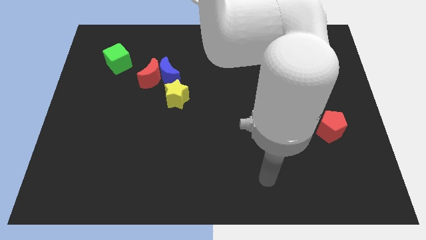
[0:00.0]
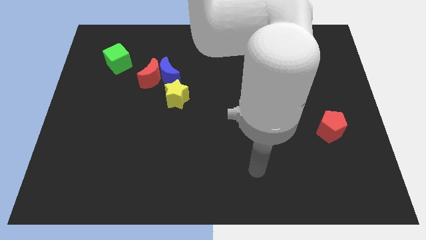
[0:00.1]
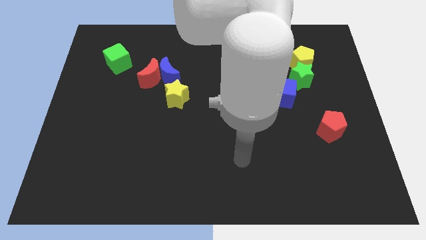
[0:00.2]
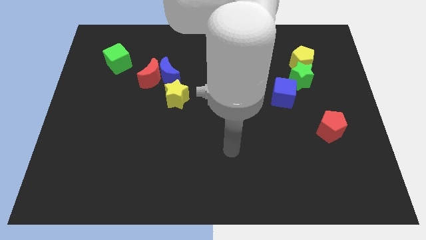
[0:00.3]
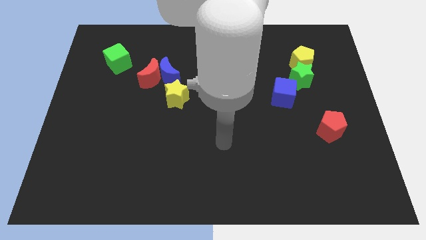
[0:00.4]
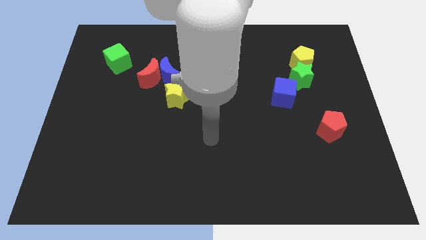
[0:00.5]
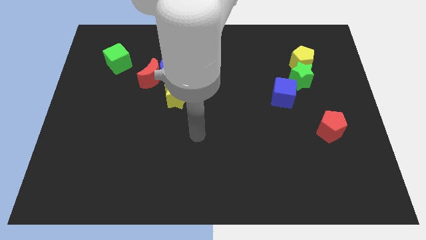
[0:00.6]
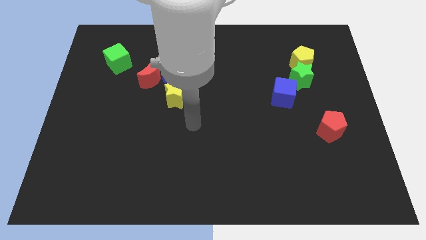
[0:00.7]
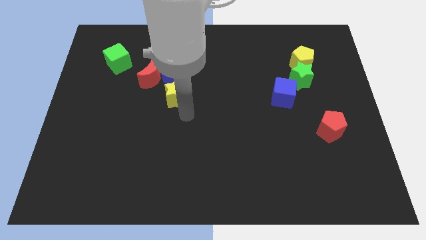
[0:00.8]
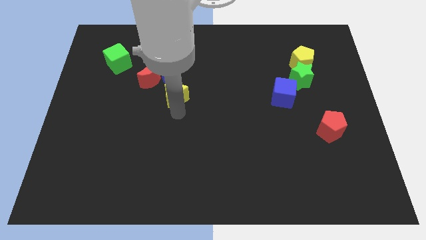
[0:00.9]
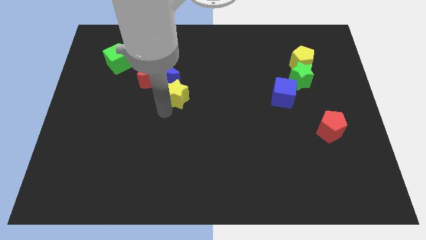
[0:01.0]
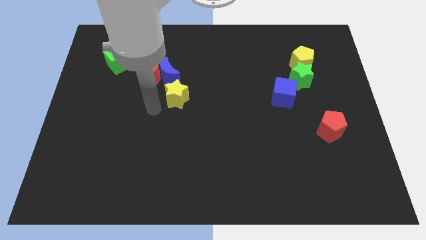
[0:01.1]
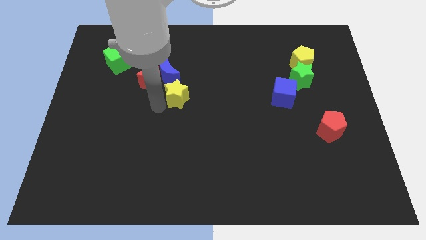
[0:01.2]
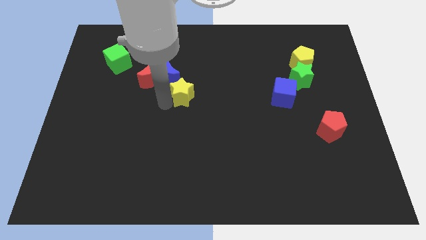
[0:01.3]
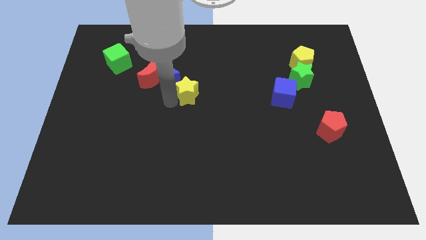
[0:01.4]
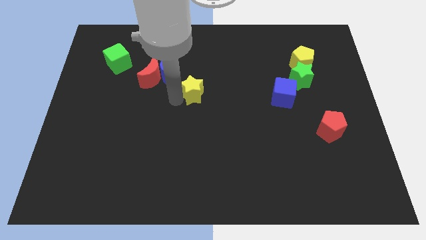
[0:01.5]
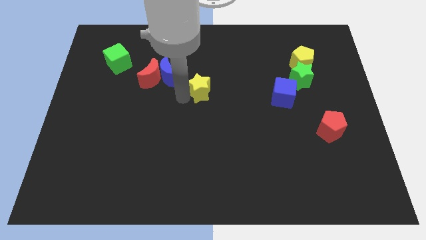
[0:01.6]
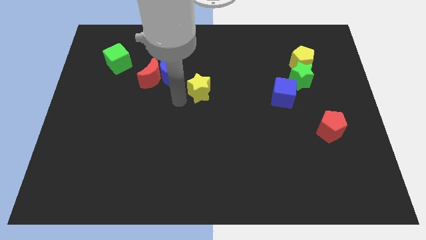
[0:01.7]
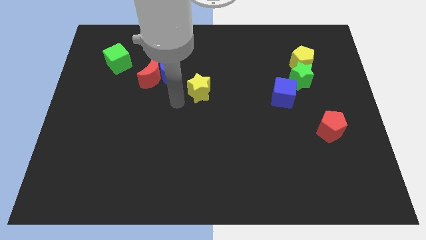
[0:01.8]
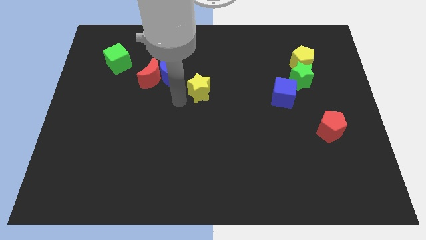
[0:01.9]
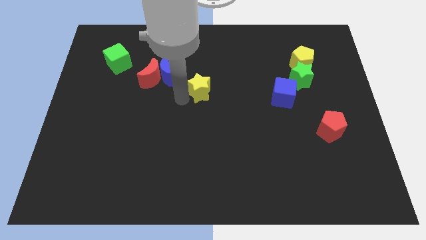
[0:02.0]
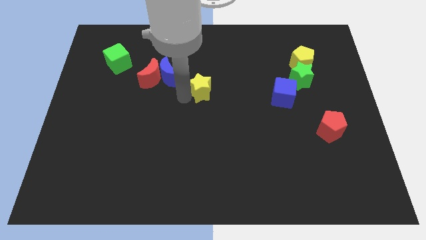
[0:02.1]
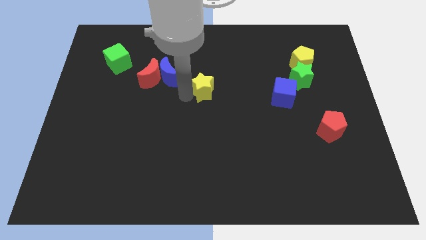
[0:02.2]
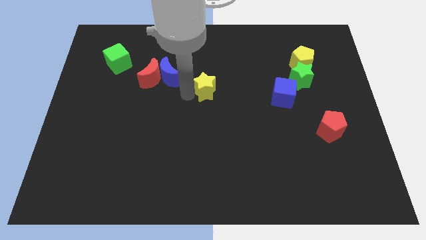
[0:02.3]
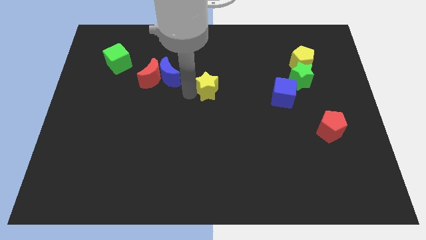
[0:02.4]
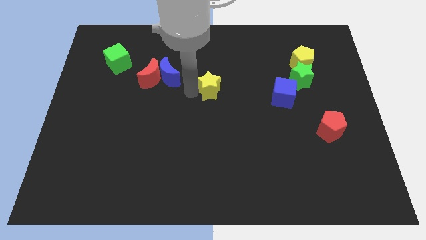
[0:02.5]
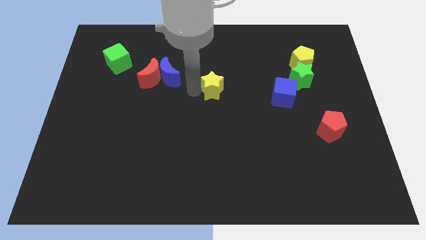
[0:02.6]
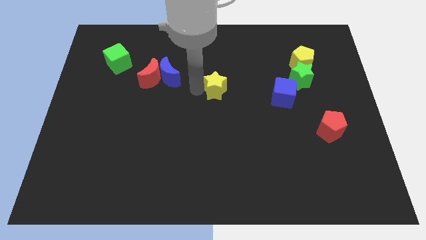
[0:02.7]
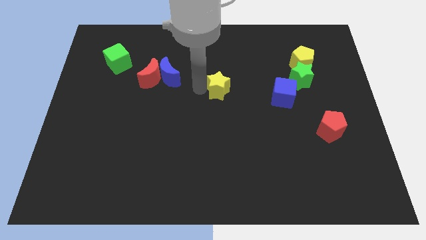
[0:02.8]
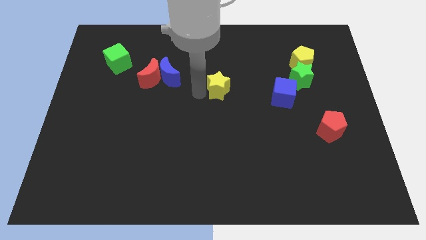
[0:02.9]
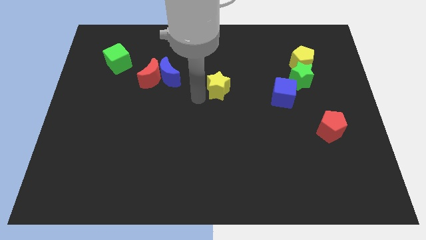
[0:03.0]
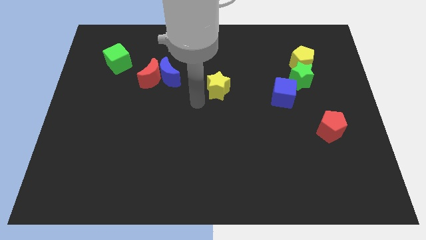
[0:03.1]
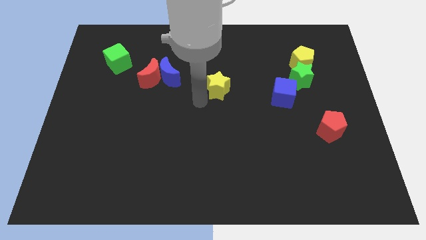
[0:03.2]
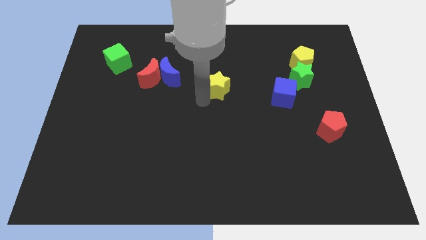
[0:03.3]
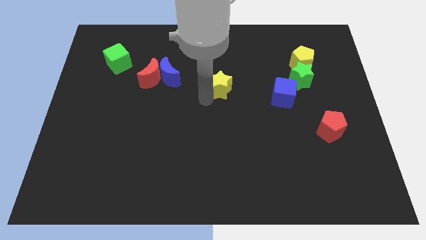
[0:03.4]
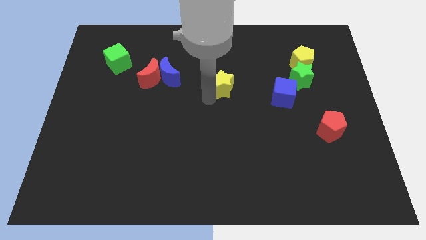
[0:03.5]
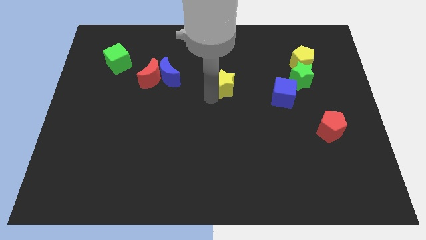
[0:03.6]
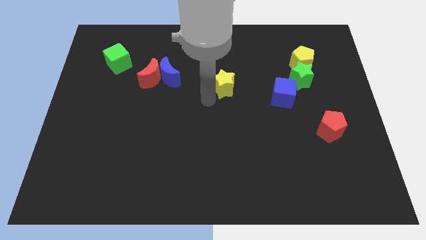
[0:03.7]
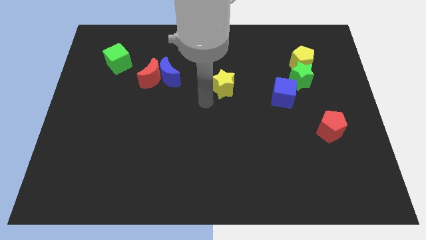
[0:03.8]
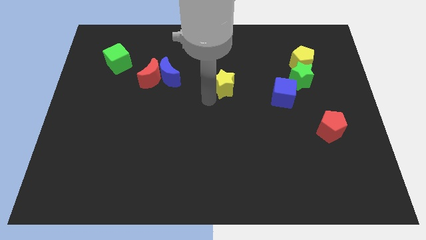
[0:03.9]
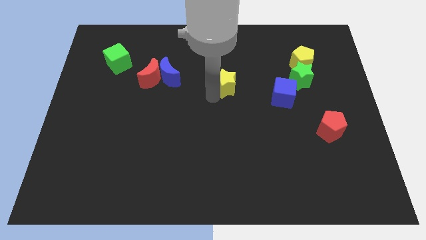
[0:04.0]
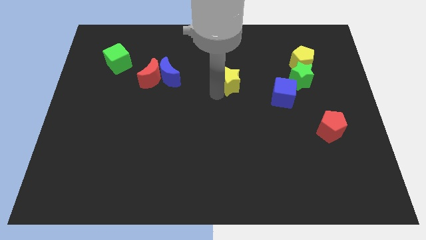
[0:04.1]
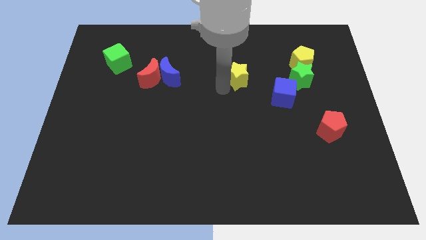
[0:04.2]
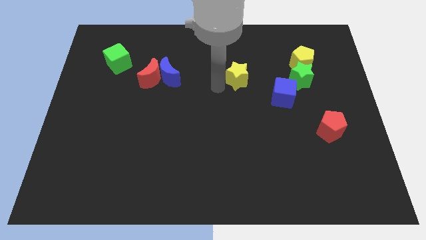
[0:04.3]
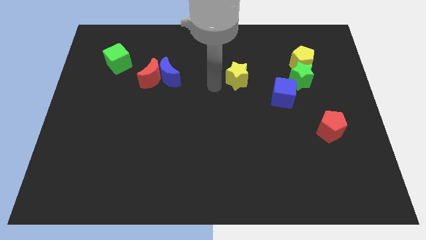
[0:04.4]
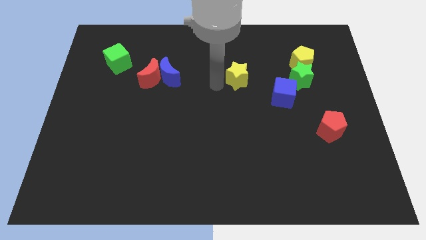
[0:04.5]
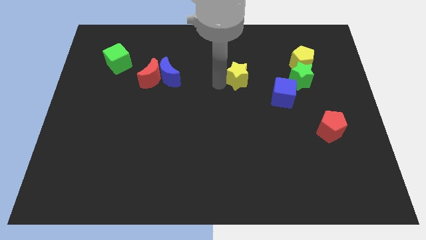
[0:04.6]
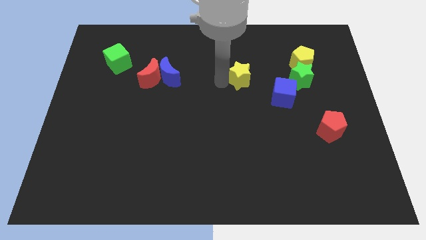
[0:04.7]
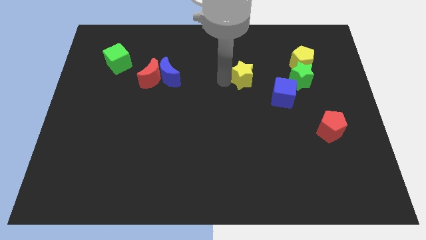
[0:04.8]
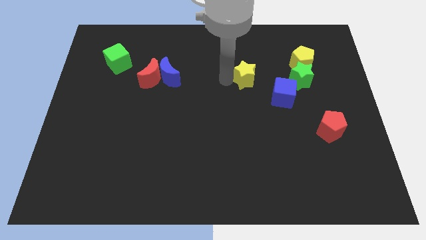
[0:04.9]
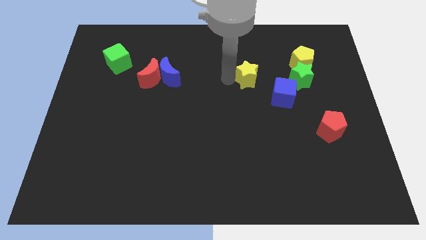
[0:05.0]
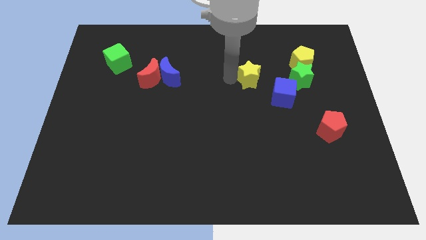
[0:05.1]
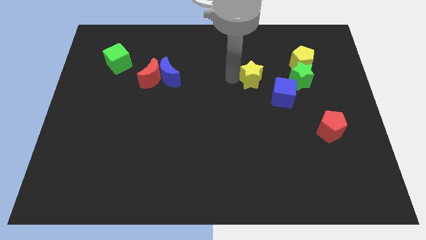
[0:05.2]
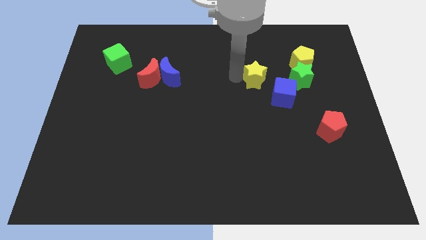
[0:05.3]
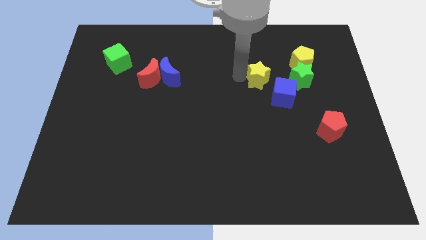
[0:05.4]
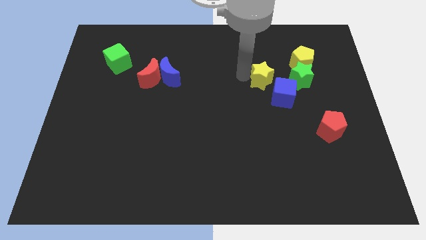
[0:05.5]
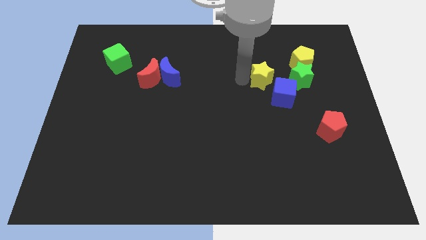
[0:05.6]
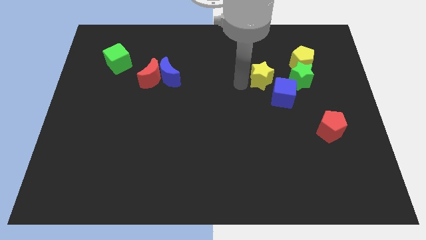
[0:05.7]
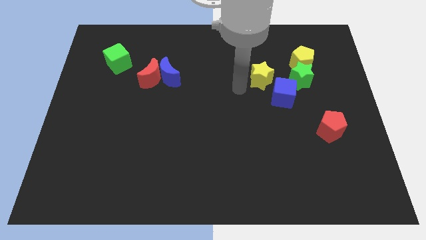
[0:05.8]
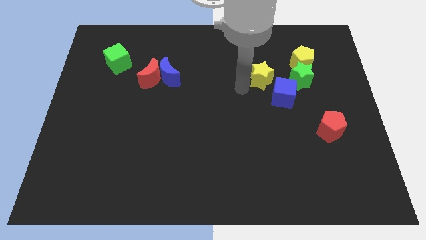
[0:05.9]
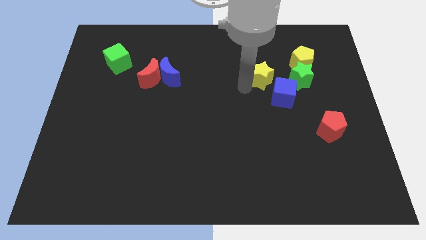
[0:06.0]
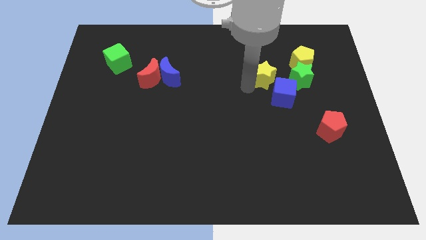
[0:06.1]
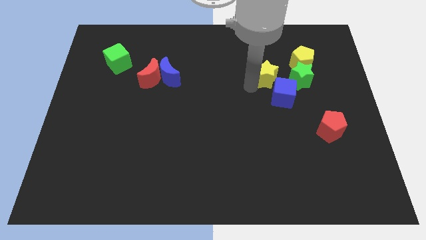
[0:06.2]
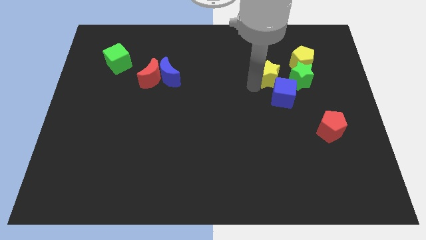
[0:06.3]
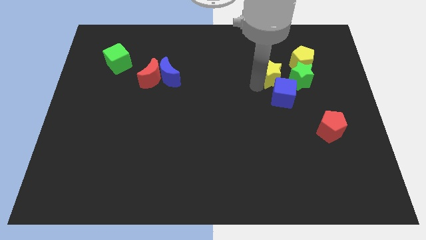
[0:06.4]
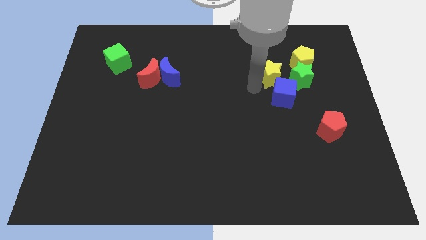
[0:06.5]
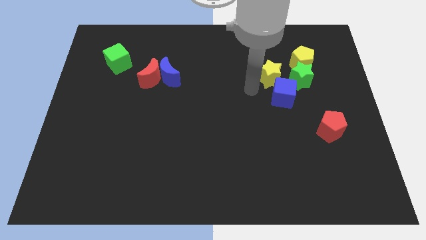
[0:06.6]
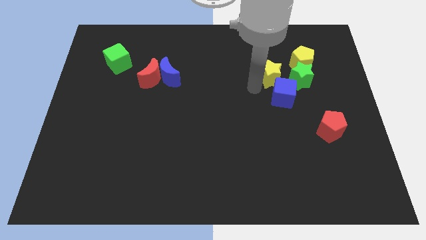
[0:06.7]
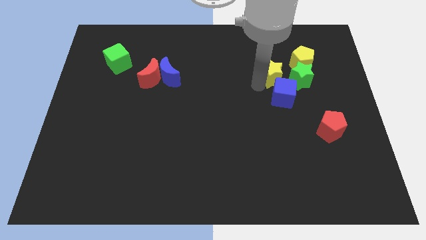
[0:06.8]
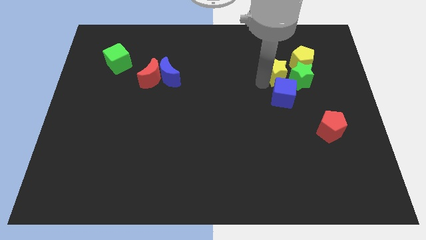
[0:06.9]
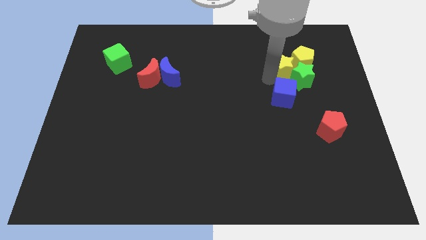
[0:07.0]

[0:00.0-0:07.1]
move the yellow star close to the yellow pentagon
